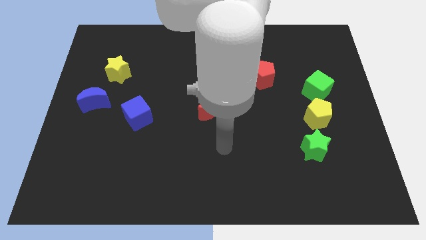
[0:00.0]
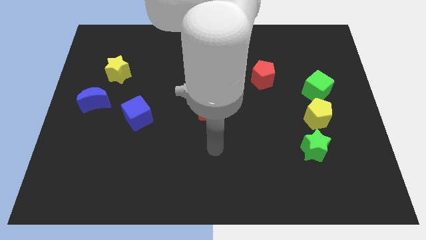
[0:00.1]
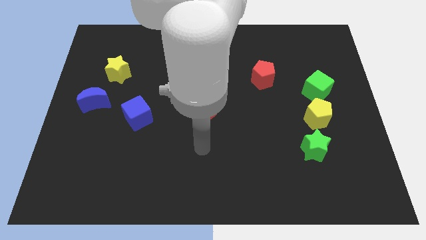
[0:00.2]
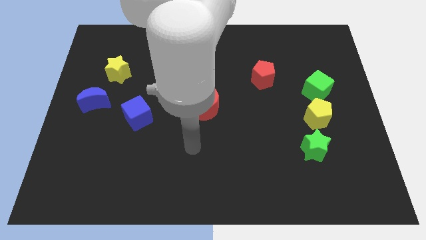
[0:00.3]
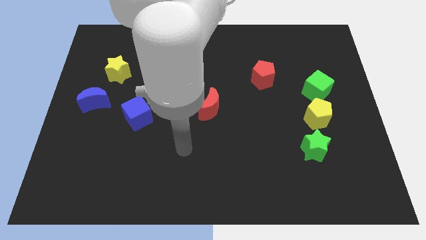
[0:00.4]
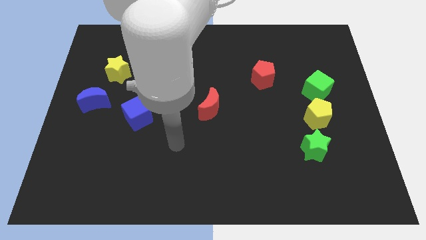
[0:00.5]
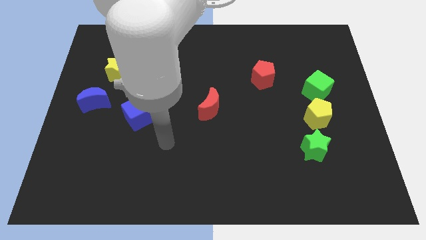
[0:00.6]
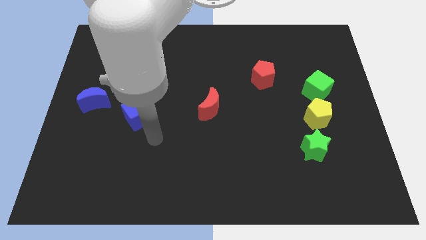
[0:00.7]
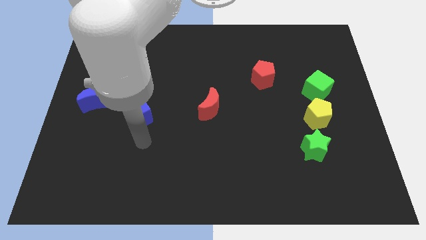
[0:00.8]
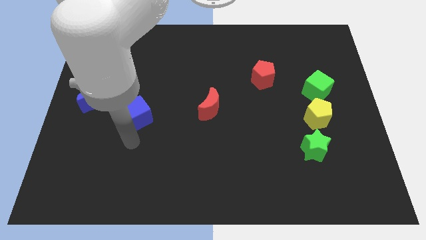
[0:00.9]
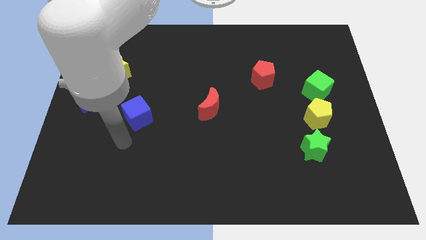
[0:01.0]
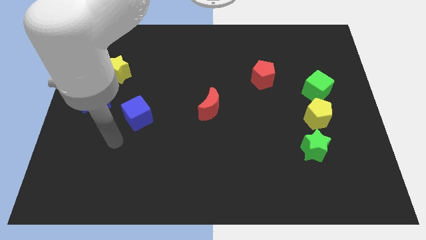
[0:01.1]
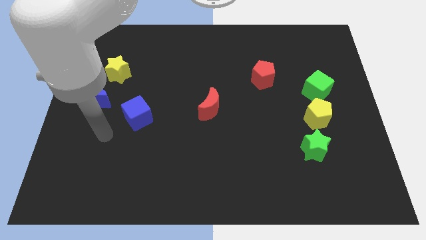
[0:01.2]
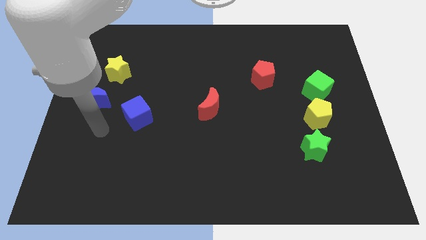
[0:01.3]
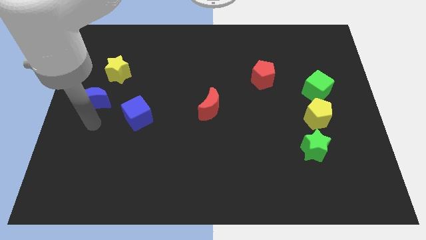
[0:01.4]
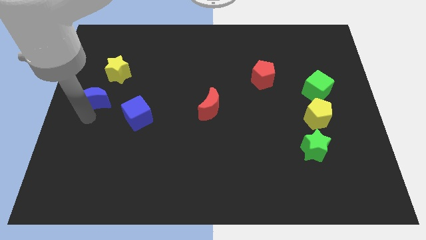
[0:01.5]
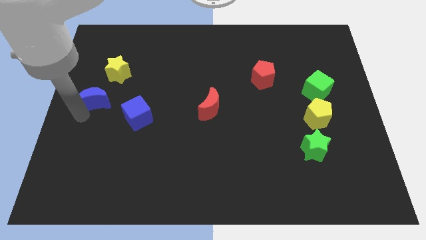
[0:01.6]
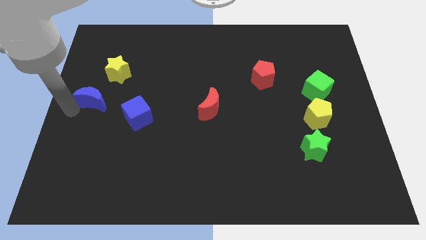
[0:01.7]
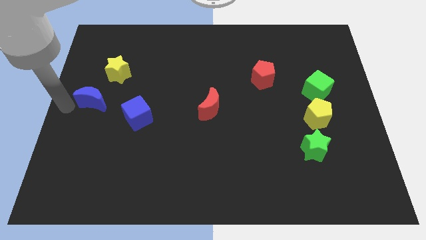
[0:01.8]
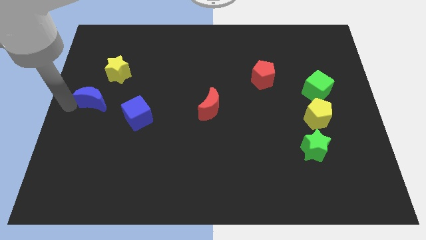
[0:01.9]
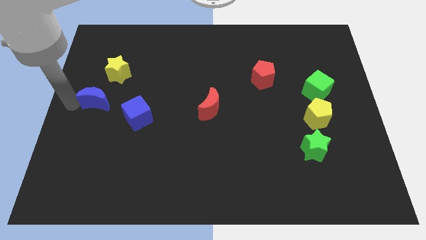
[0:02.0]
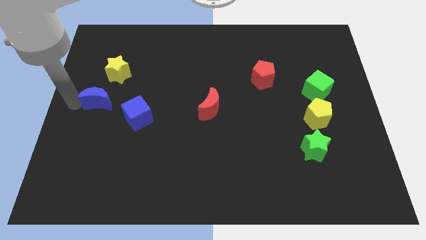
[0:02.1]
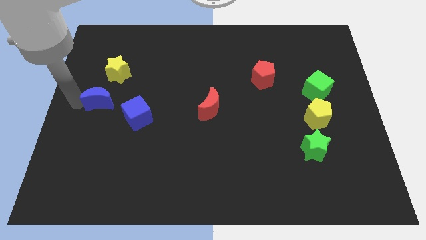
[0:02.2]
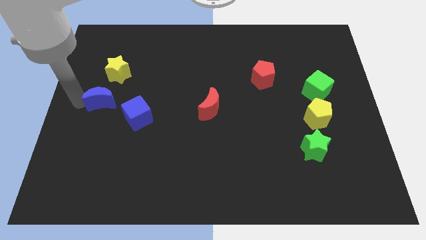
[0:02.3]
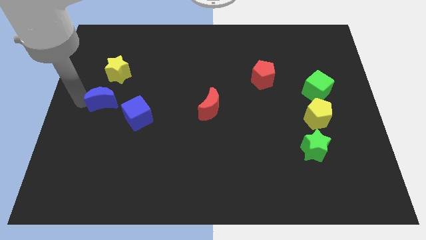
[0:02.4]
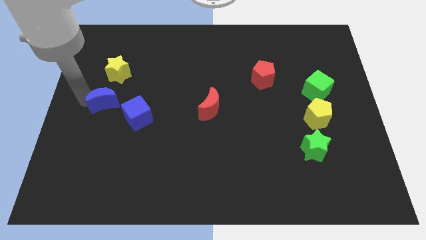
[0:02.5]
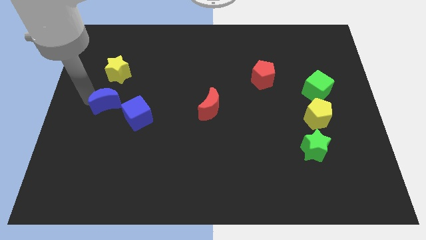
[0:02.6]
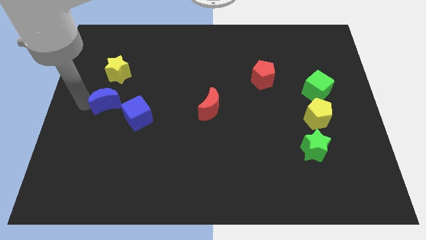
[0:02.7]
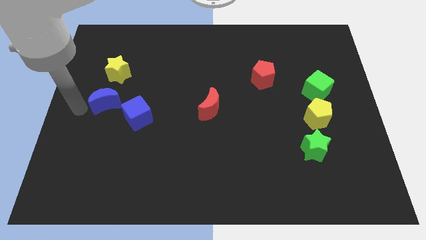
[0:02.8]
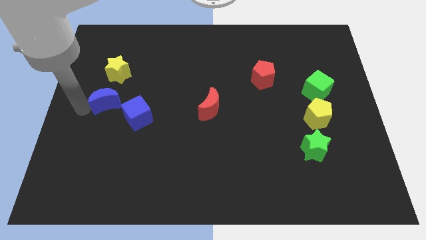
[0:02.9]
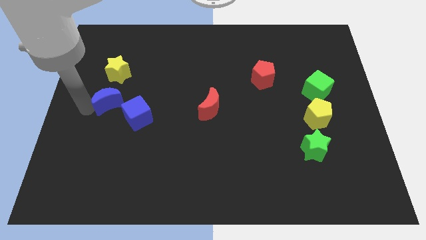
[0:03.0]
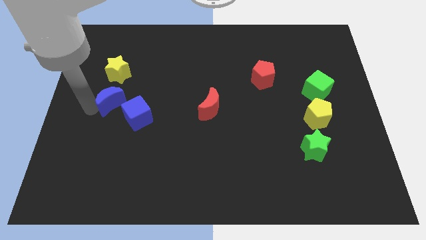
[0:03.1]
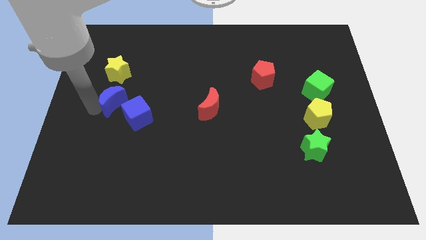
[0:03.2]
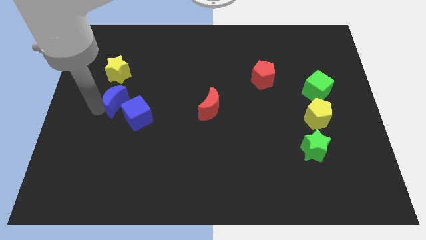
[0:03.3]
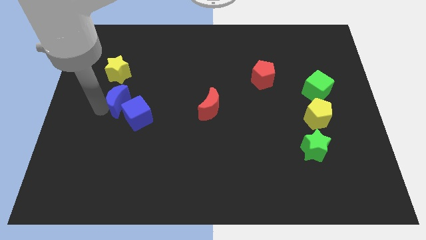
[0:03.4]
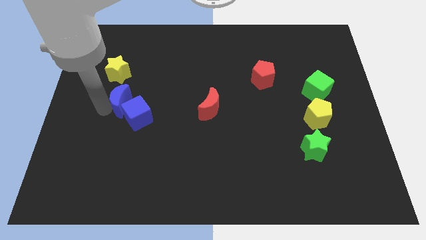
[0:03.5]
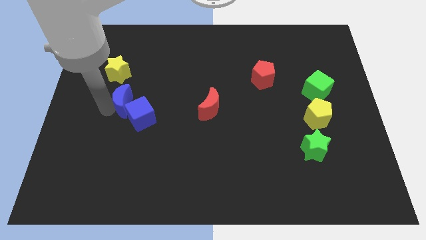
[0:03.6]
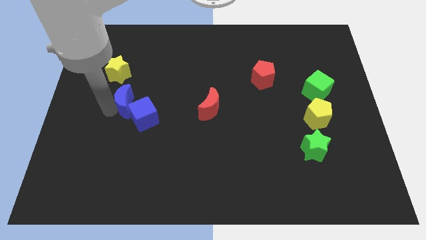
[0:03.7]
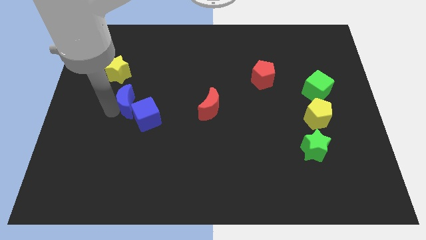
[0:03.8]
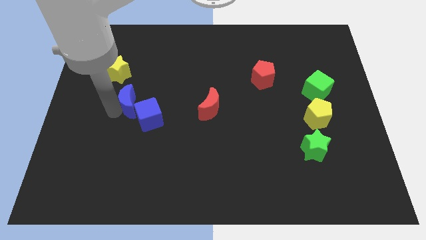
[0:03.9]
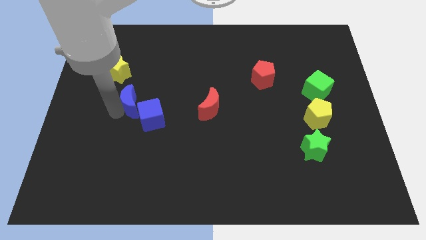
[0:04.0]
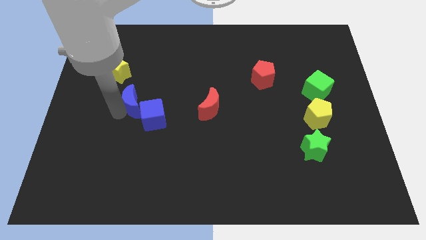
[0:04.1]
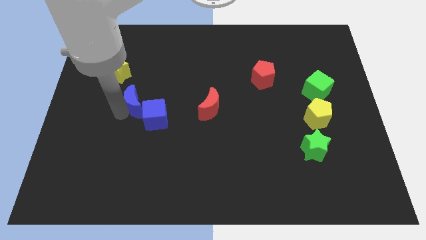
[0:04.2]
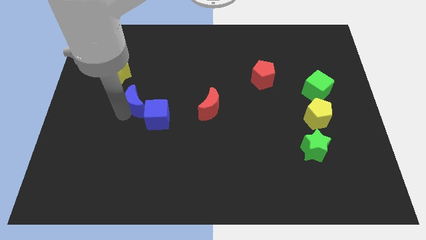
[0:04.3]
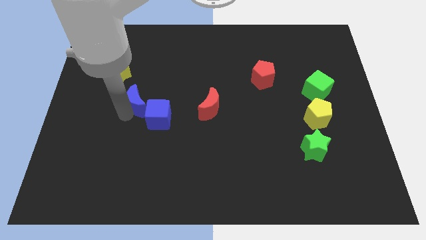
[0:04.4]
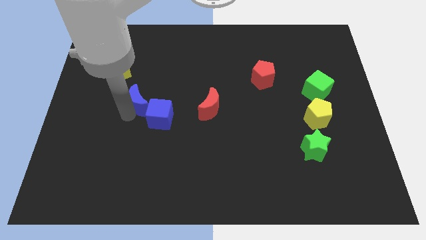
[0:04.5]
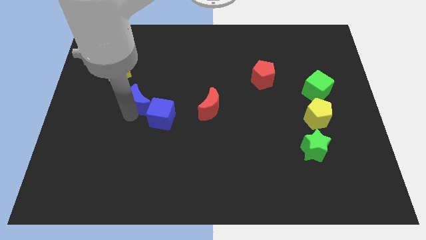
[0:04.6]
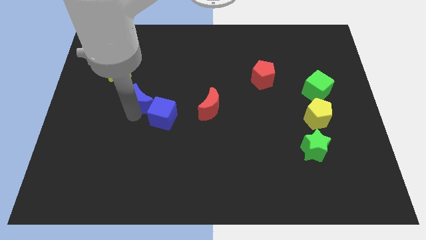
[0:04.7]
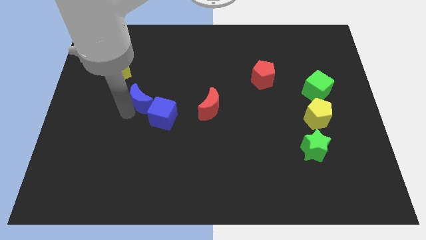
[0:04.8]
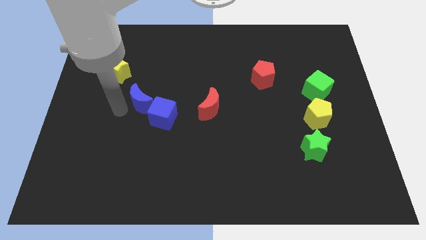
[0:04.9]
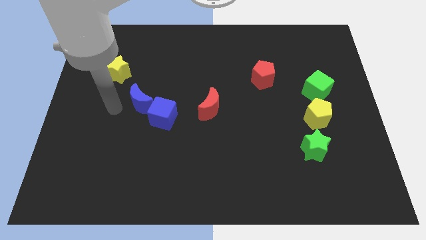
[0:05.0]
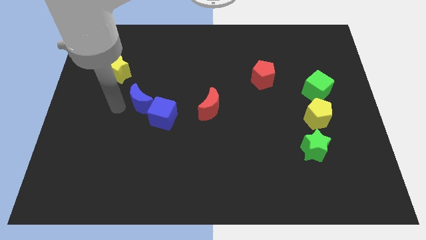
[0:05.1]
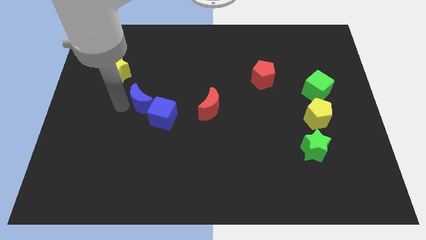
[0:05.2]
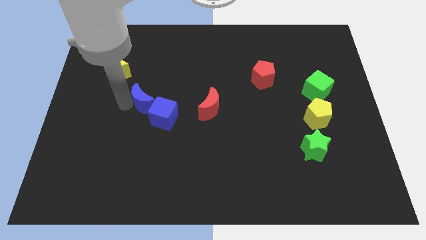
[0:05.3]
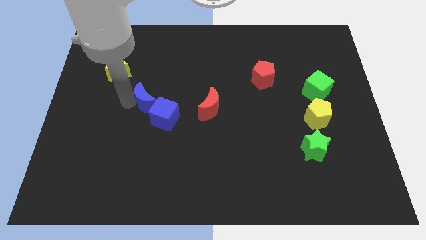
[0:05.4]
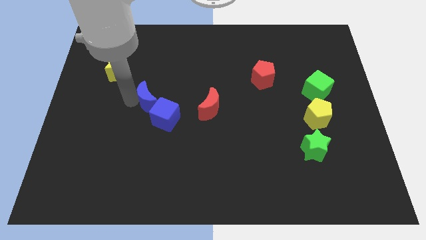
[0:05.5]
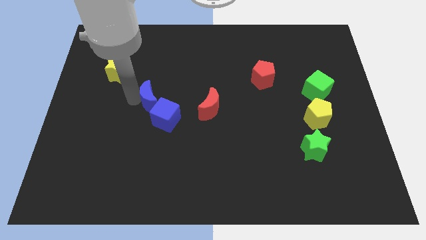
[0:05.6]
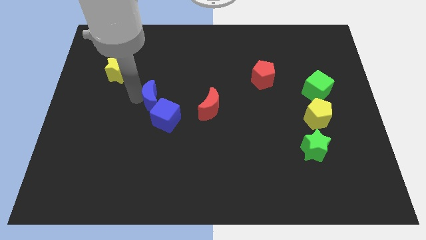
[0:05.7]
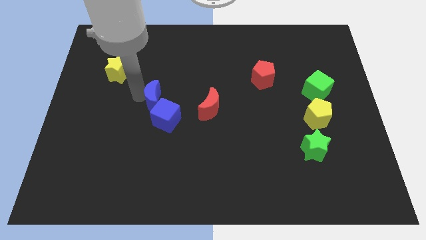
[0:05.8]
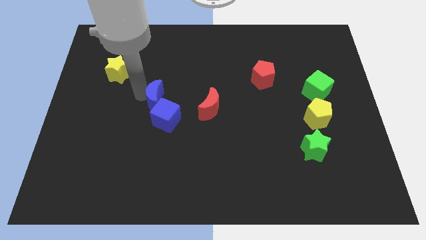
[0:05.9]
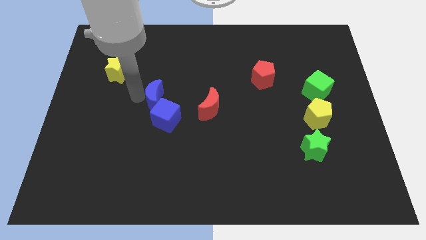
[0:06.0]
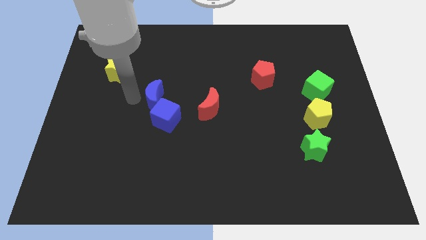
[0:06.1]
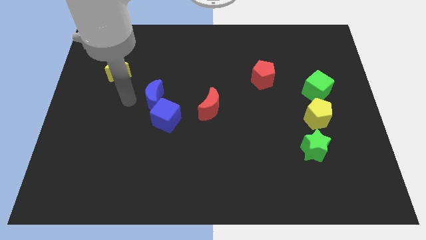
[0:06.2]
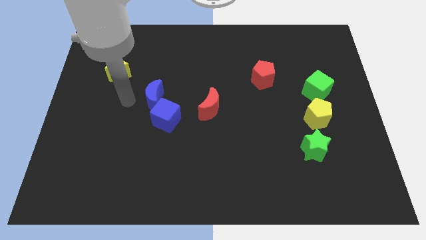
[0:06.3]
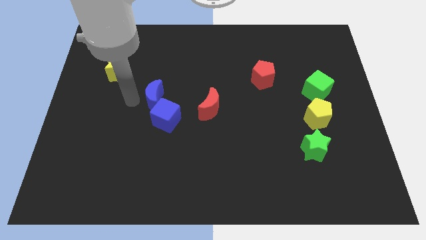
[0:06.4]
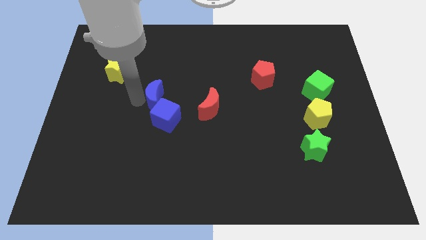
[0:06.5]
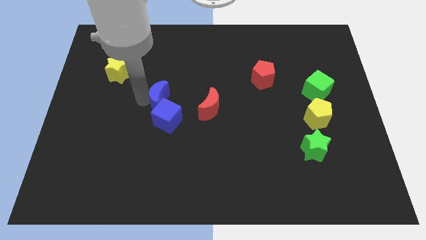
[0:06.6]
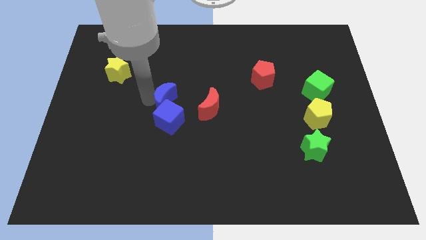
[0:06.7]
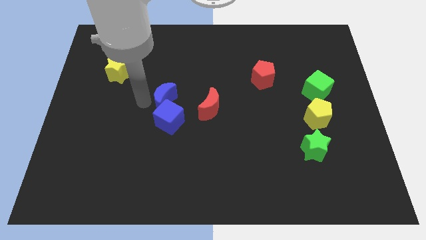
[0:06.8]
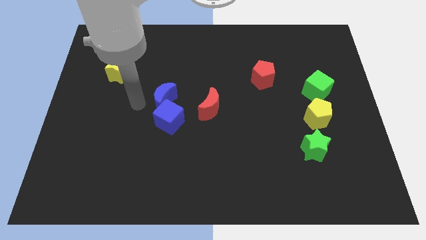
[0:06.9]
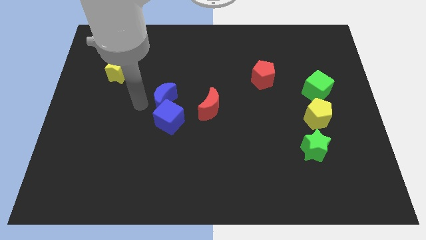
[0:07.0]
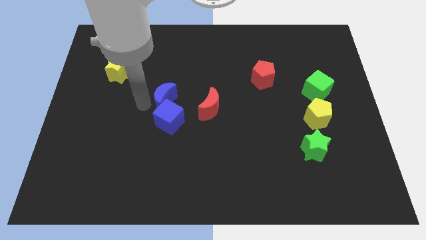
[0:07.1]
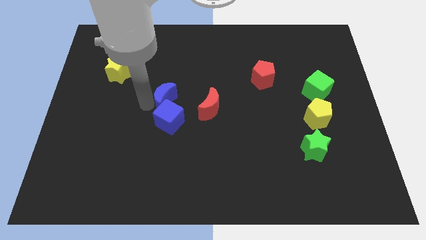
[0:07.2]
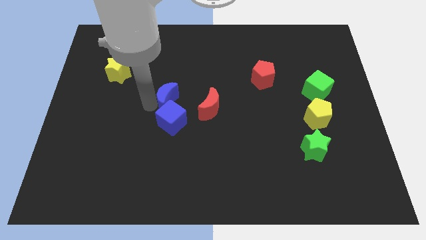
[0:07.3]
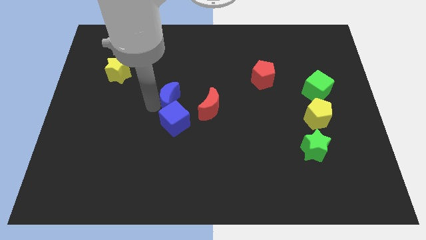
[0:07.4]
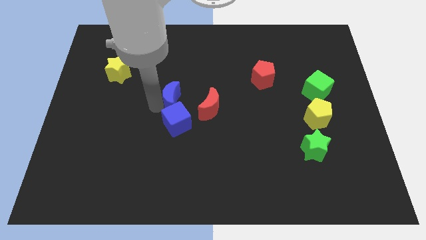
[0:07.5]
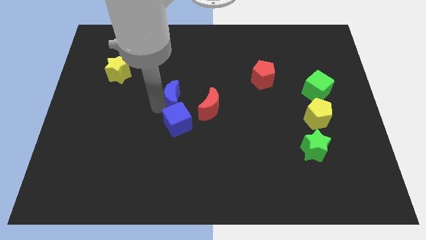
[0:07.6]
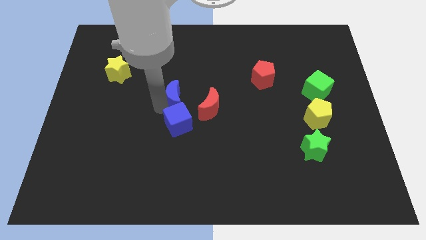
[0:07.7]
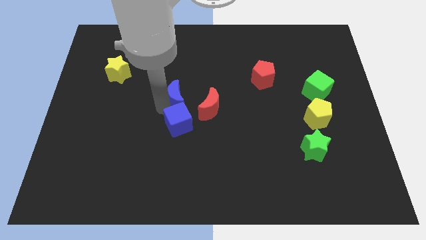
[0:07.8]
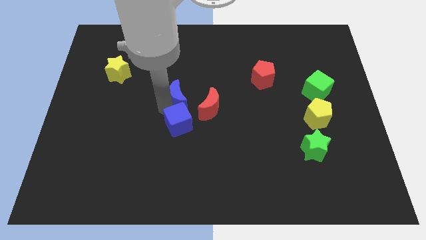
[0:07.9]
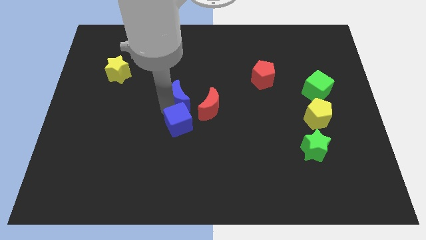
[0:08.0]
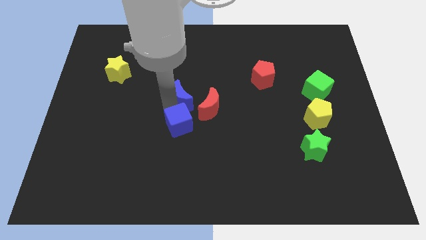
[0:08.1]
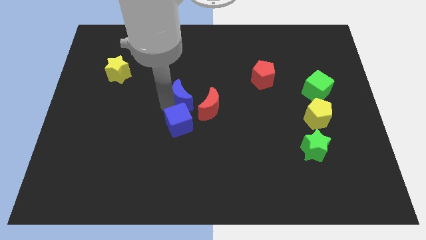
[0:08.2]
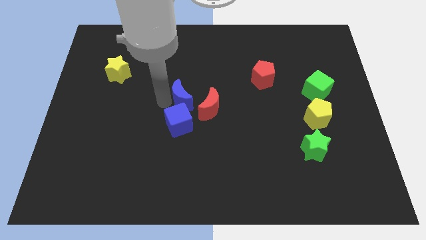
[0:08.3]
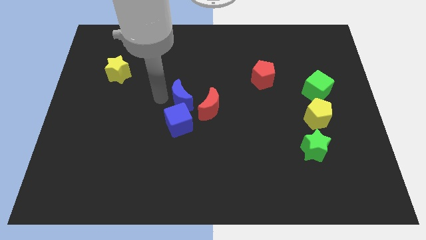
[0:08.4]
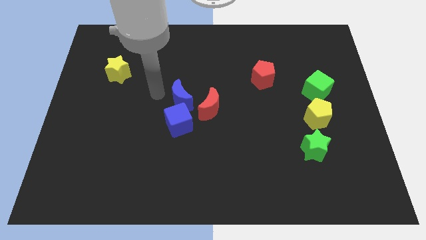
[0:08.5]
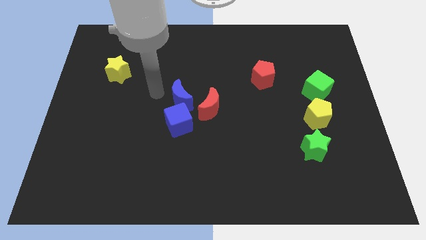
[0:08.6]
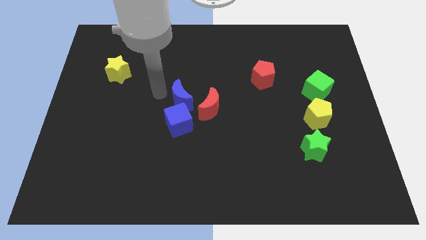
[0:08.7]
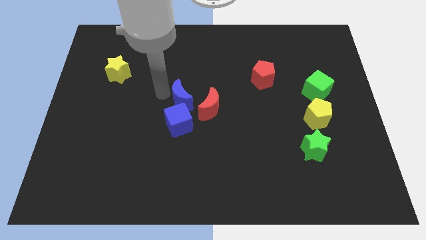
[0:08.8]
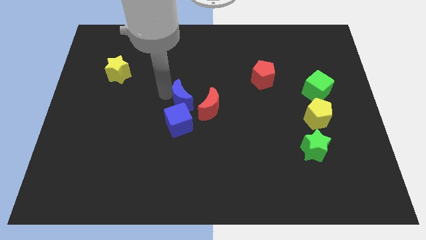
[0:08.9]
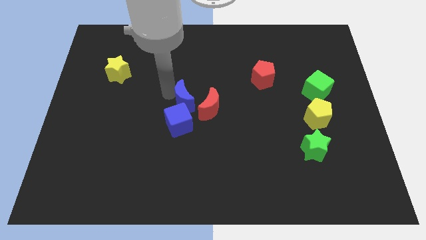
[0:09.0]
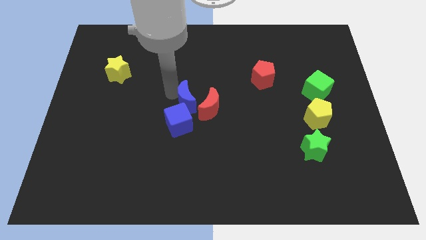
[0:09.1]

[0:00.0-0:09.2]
put the blue moon close to the red moon
